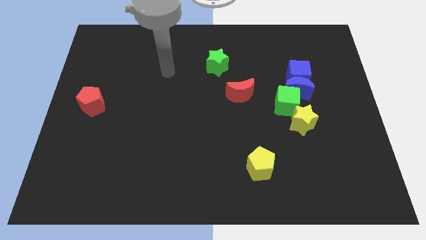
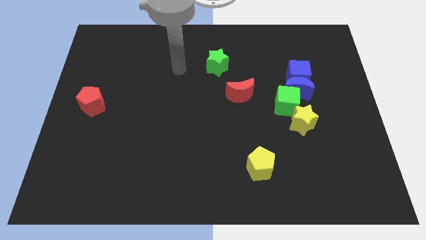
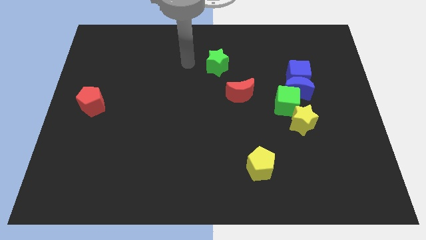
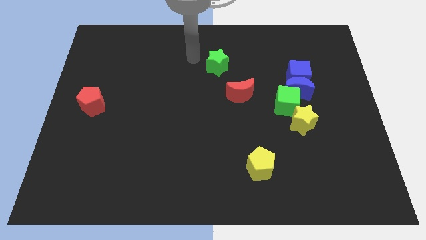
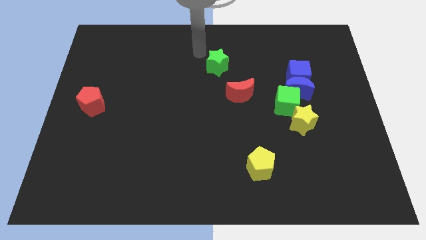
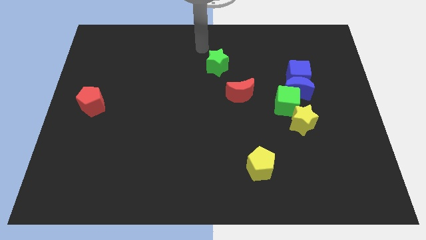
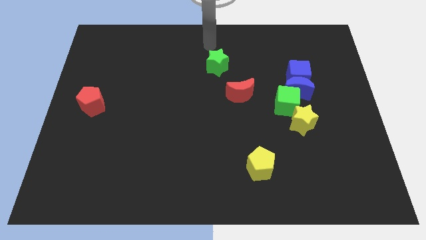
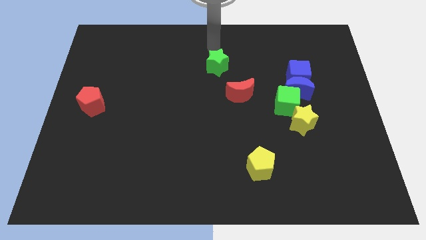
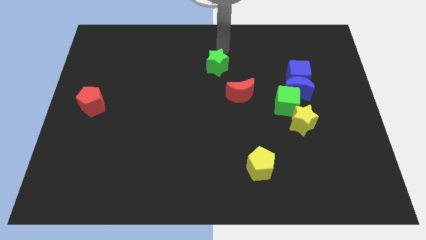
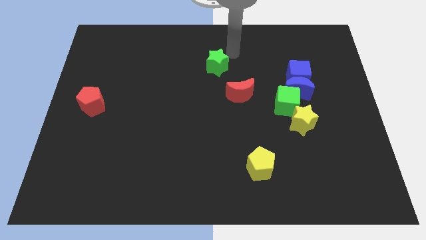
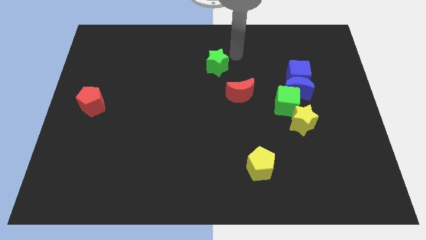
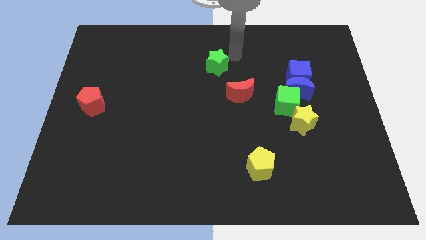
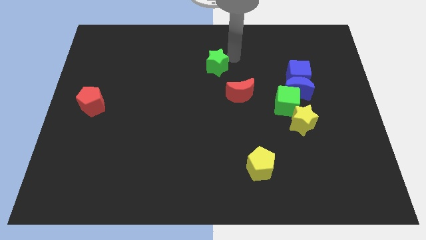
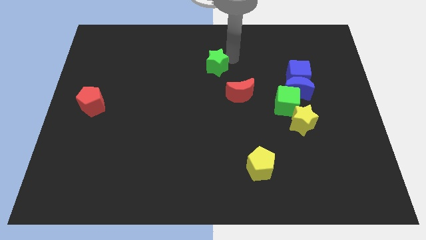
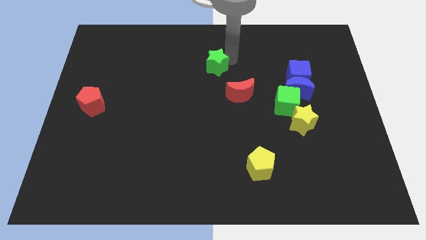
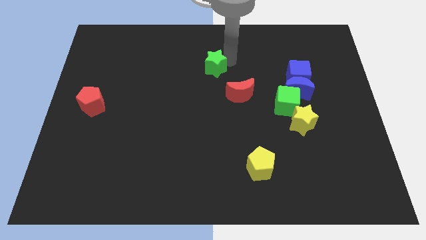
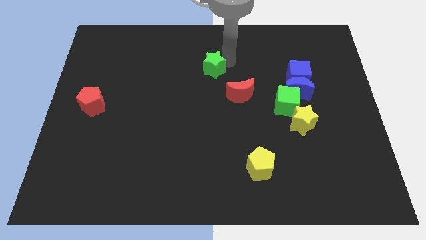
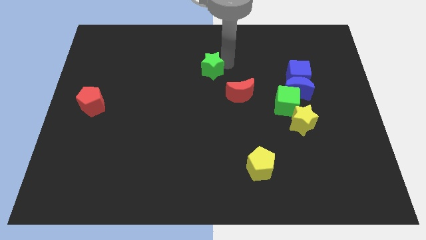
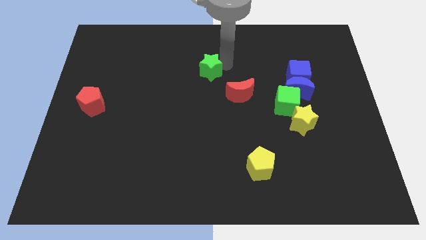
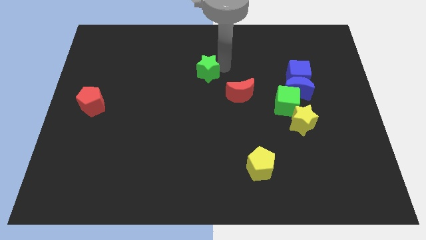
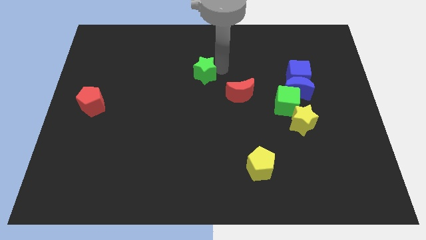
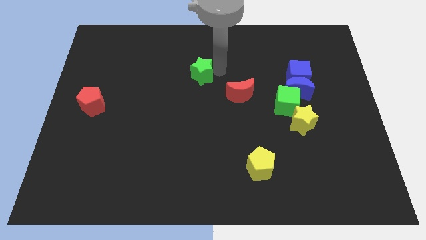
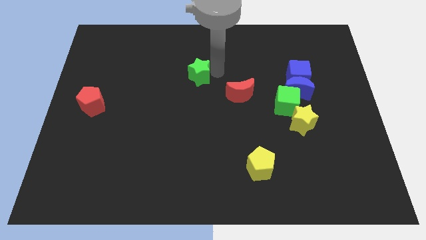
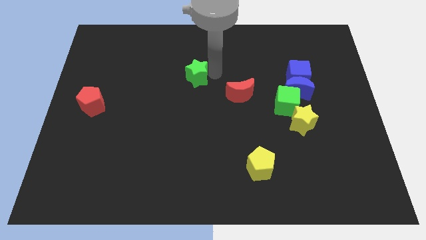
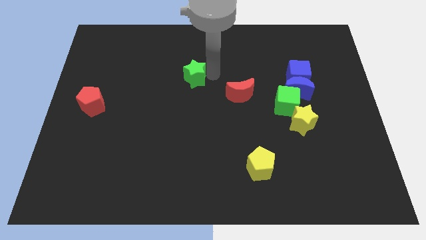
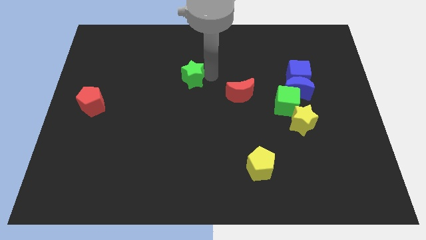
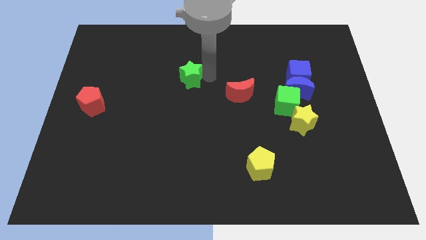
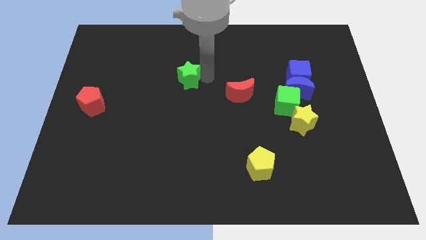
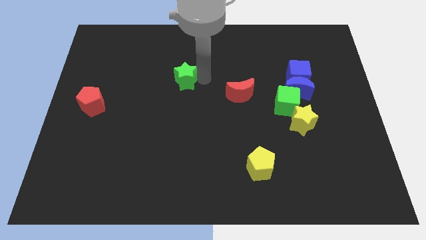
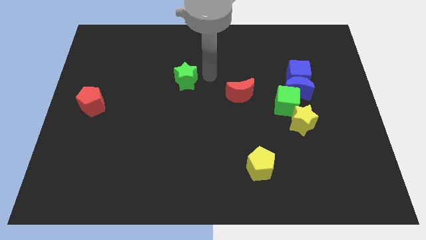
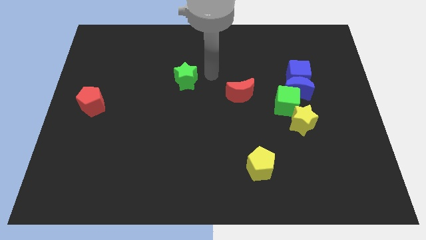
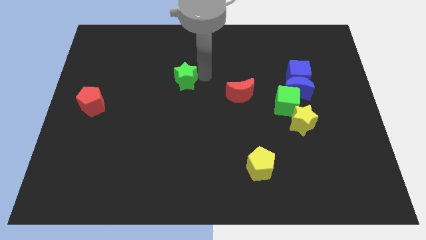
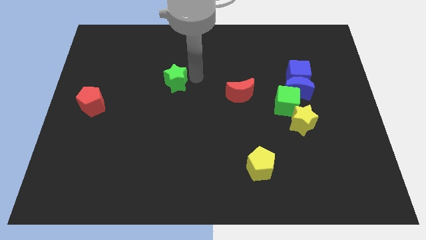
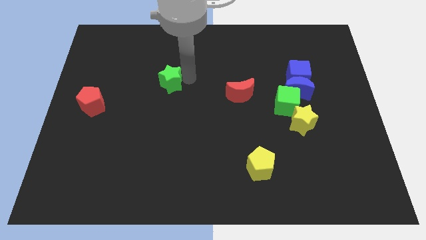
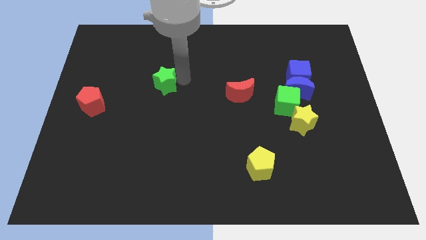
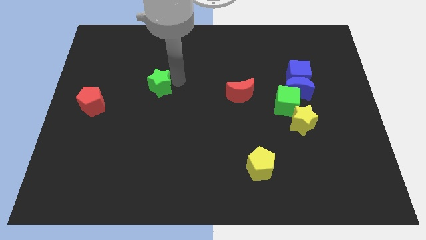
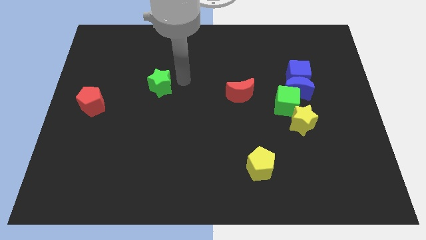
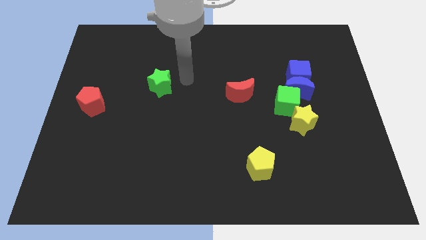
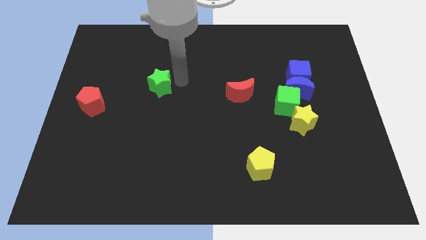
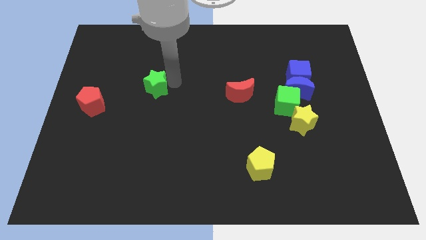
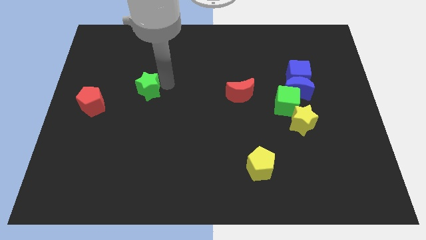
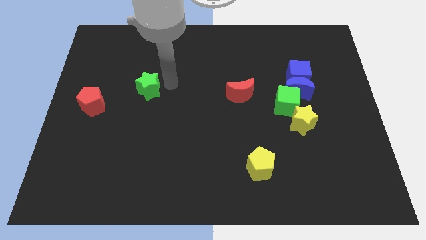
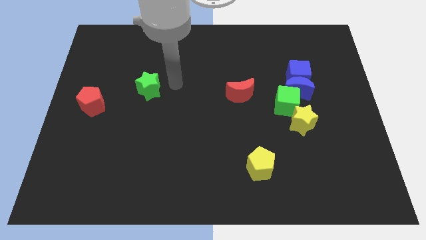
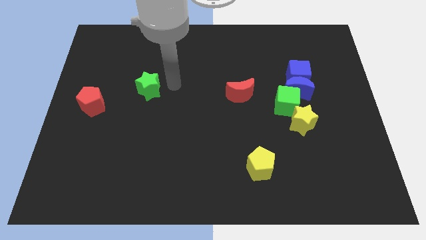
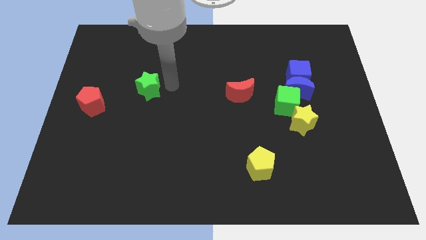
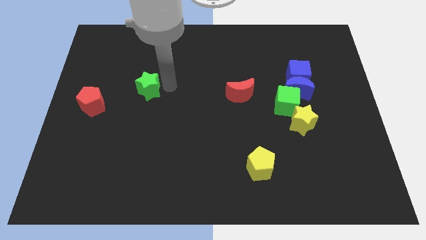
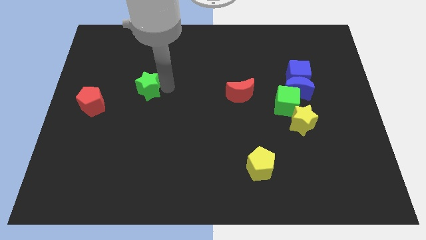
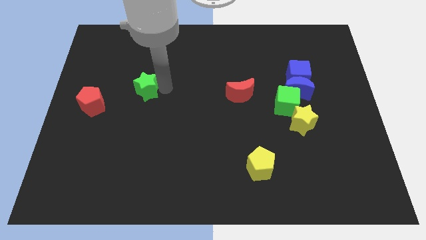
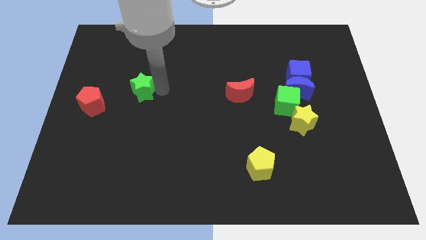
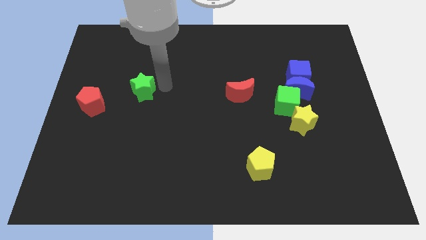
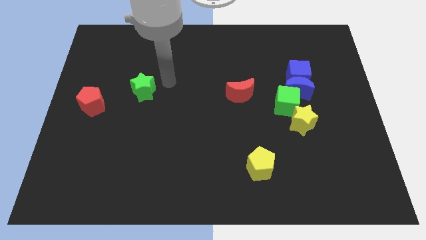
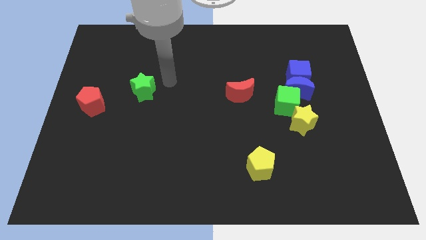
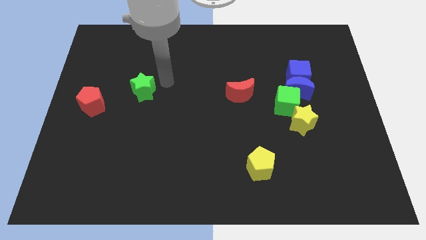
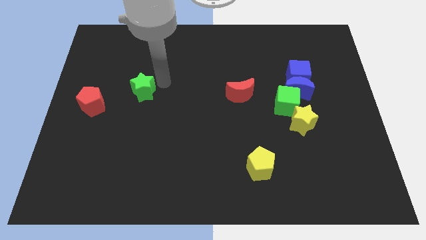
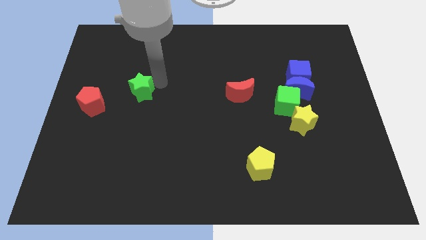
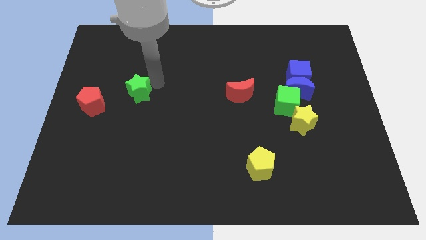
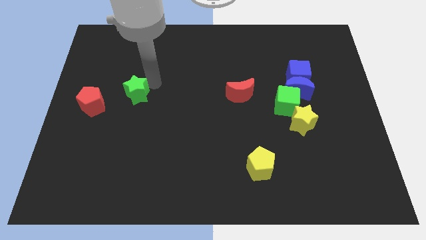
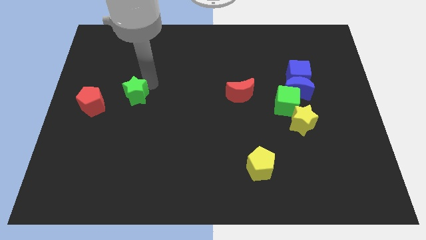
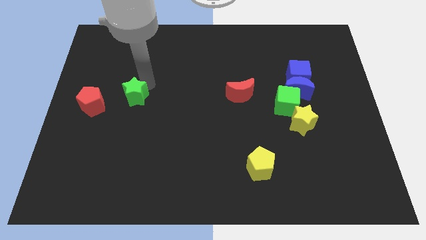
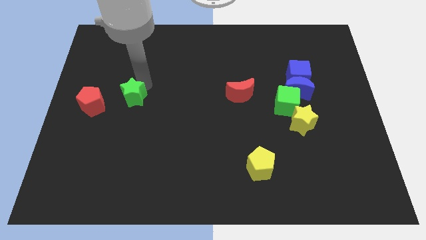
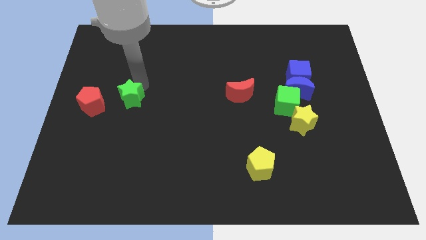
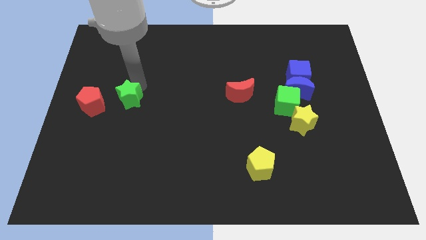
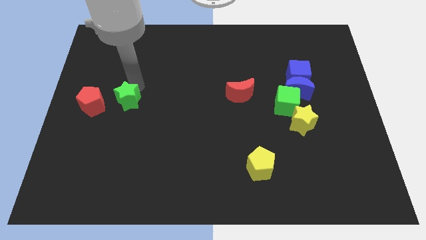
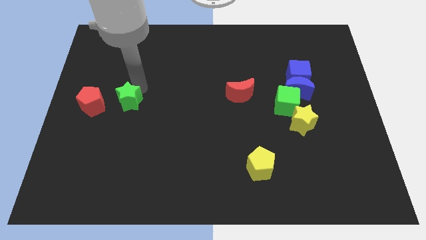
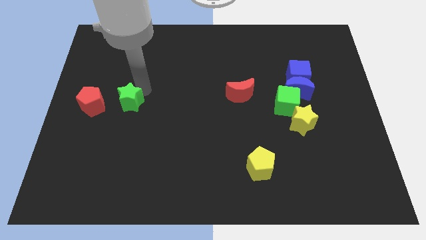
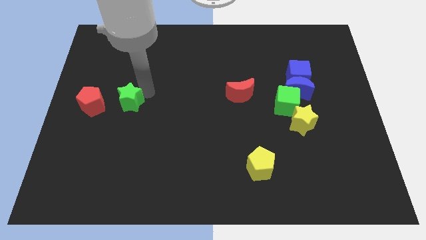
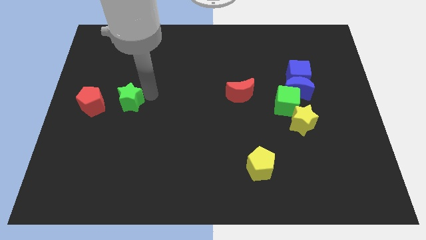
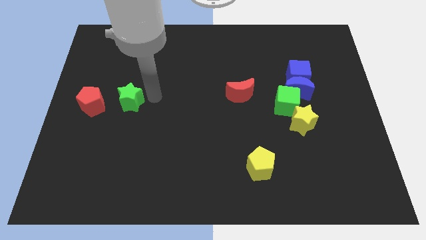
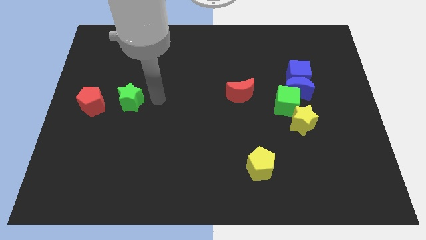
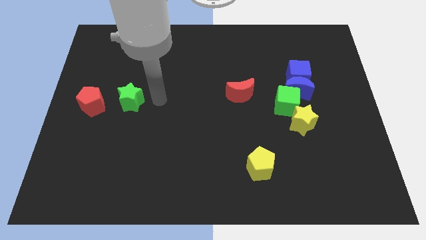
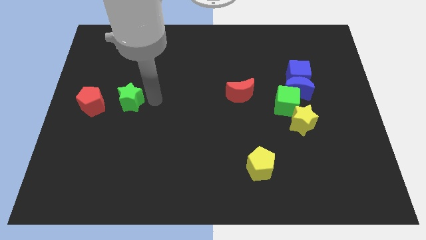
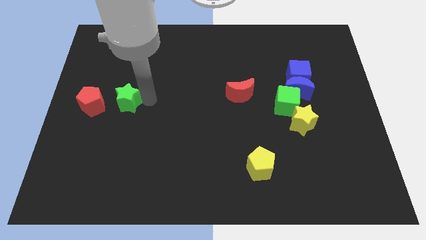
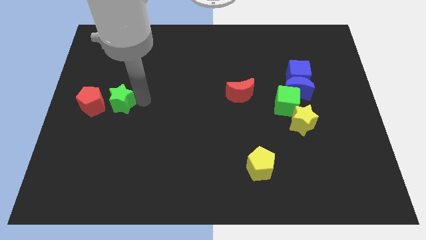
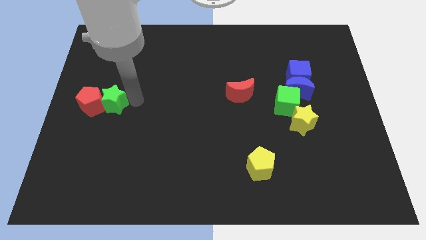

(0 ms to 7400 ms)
slide the green star close to the red pentagon
